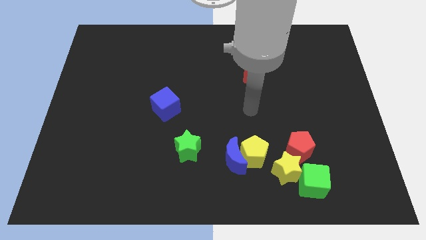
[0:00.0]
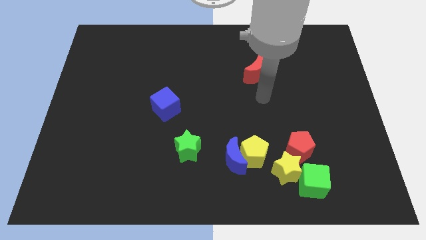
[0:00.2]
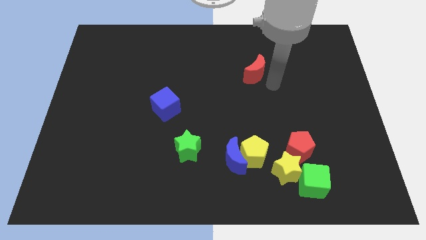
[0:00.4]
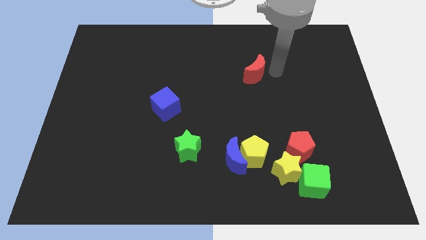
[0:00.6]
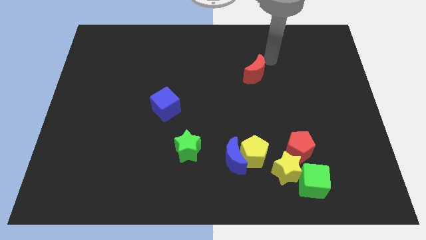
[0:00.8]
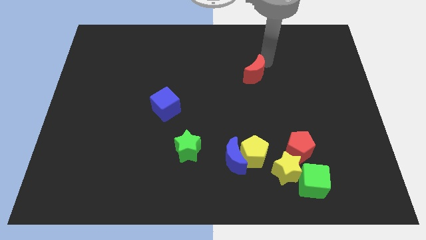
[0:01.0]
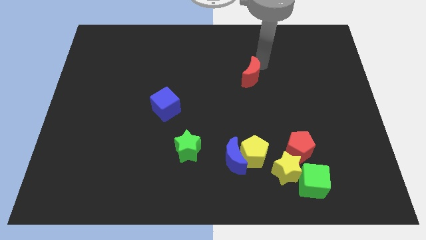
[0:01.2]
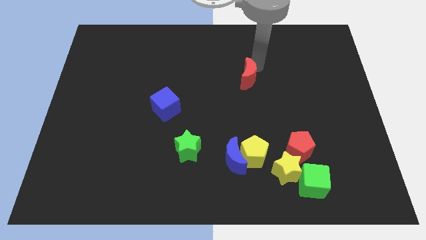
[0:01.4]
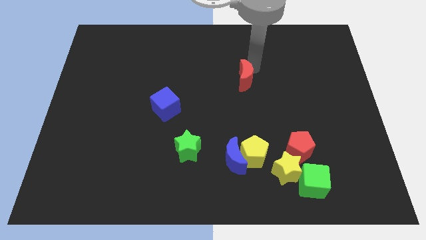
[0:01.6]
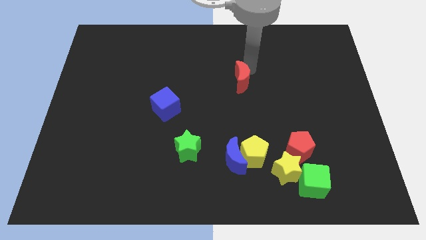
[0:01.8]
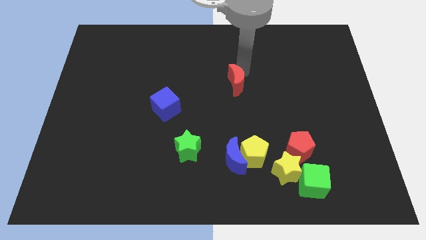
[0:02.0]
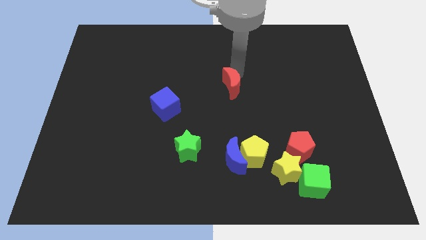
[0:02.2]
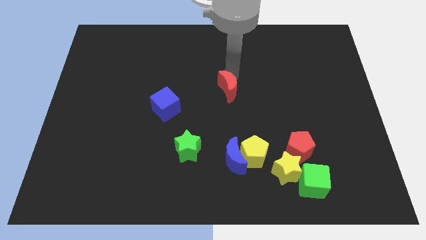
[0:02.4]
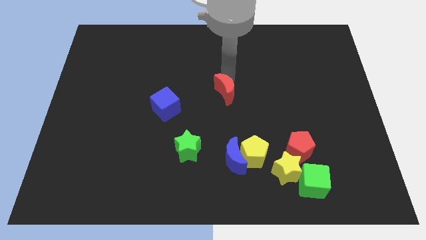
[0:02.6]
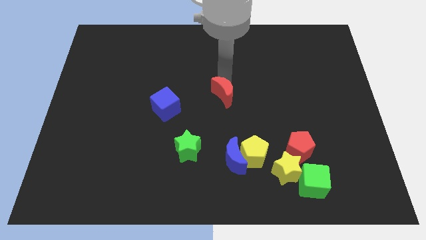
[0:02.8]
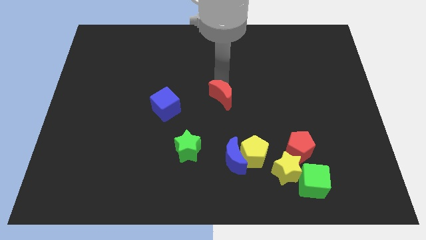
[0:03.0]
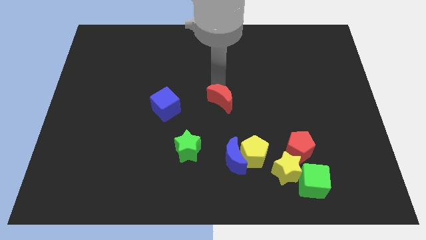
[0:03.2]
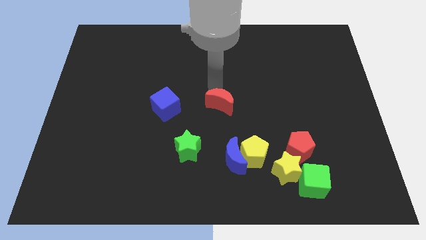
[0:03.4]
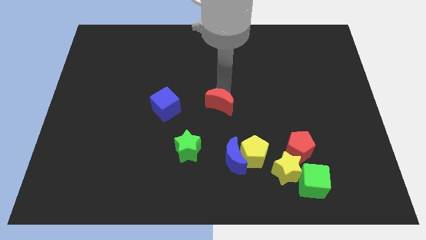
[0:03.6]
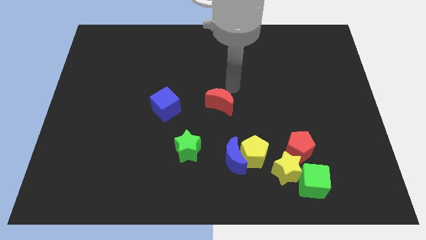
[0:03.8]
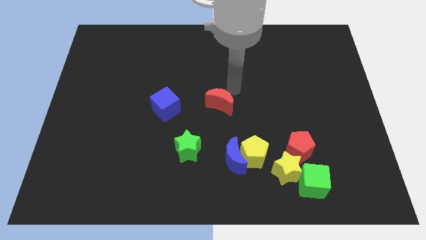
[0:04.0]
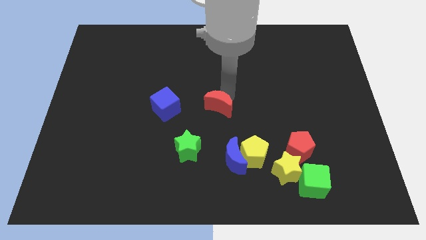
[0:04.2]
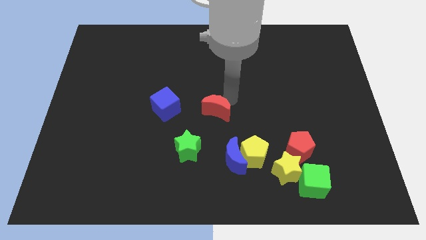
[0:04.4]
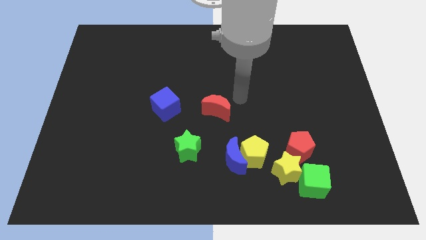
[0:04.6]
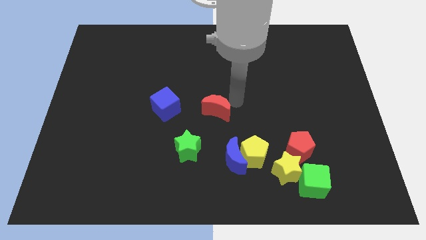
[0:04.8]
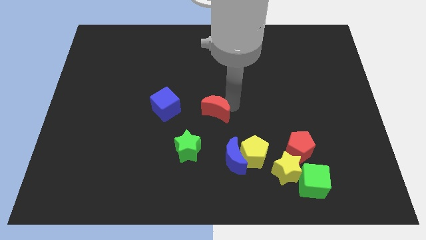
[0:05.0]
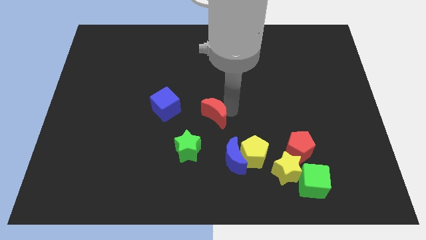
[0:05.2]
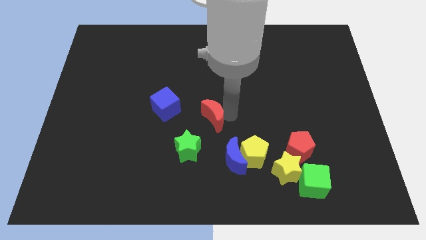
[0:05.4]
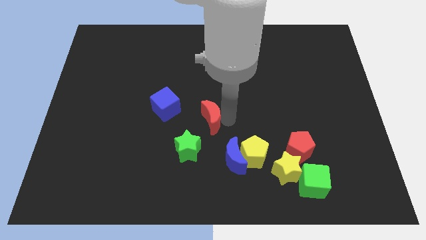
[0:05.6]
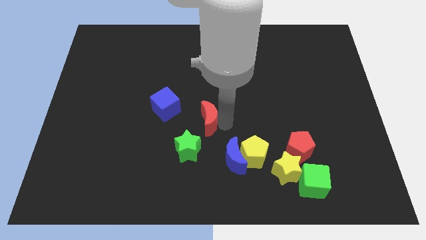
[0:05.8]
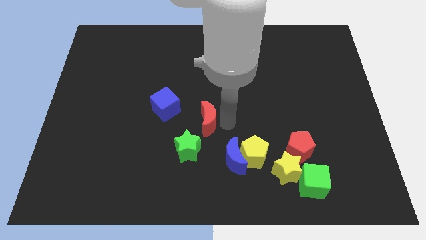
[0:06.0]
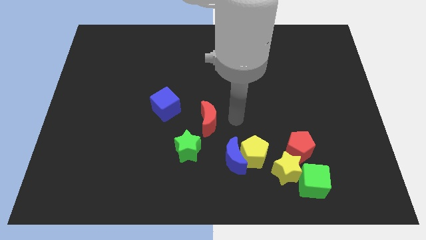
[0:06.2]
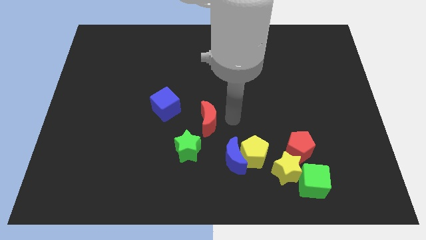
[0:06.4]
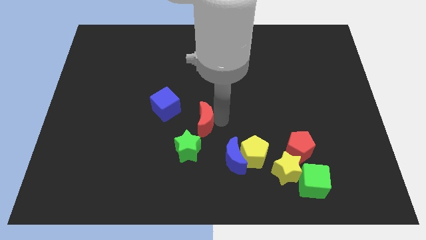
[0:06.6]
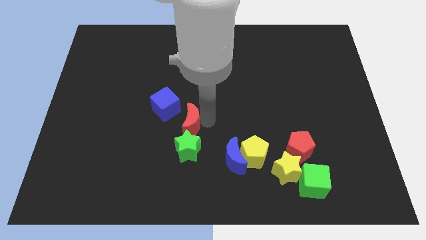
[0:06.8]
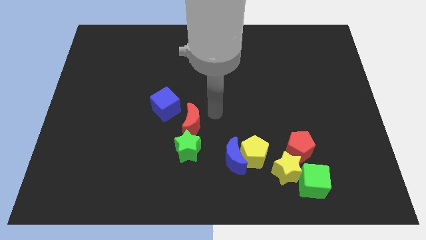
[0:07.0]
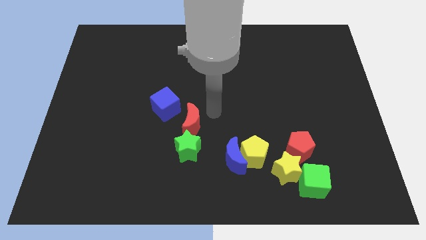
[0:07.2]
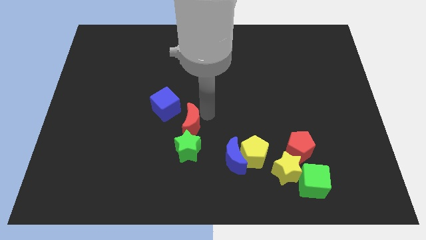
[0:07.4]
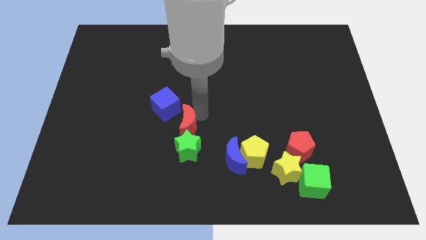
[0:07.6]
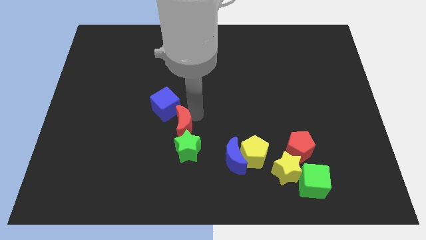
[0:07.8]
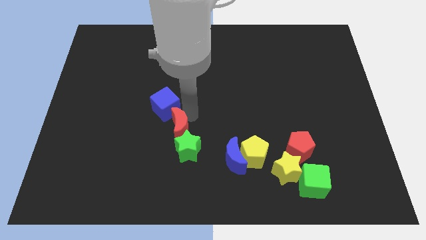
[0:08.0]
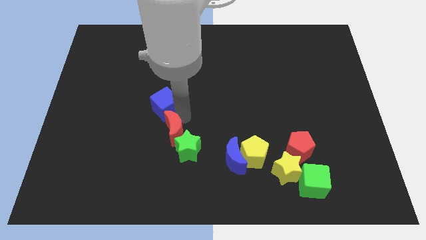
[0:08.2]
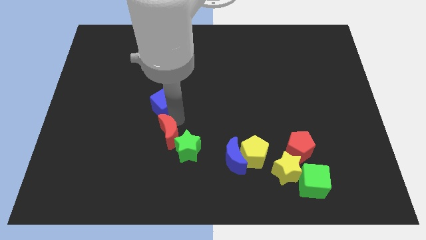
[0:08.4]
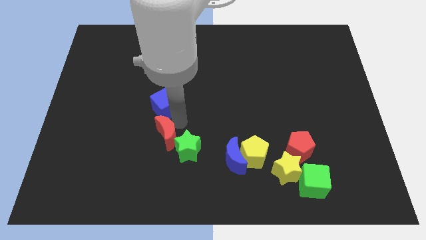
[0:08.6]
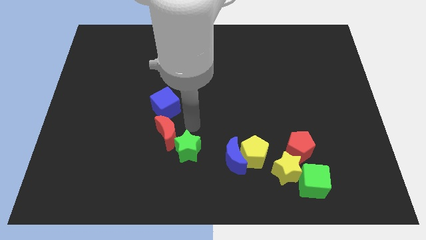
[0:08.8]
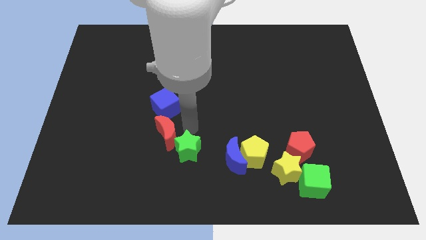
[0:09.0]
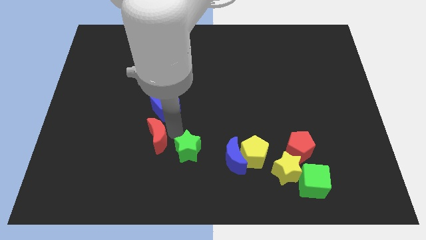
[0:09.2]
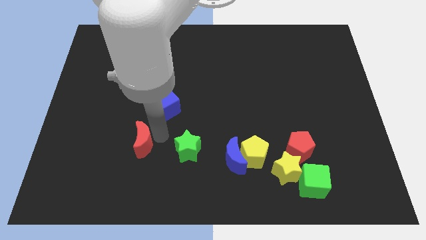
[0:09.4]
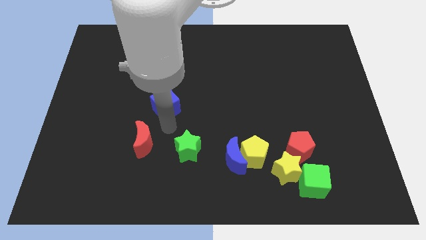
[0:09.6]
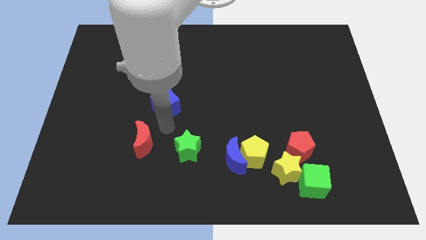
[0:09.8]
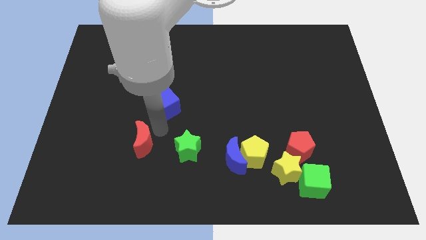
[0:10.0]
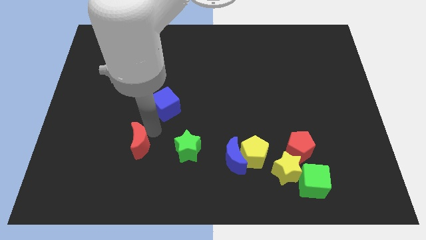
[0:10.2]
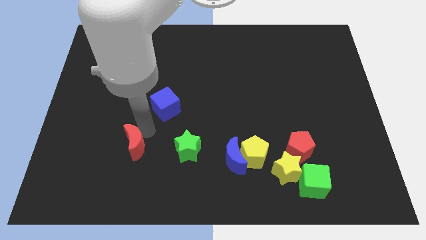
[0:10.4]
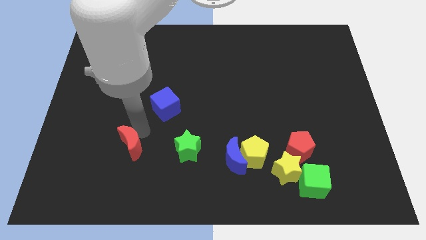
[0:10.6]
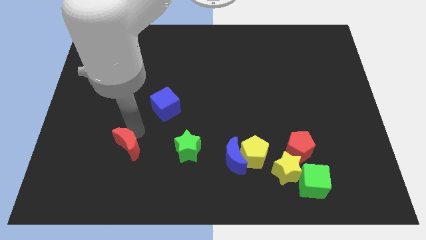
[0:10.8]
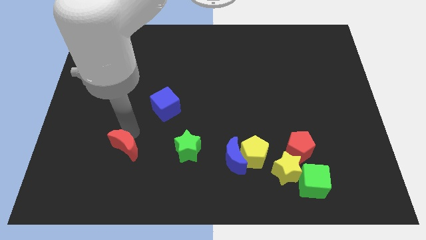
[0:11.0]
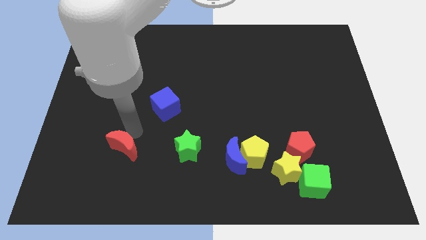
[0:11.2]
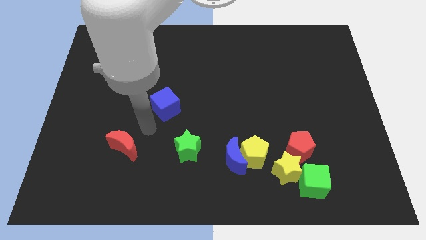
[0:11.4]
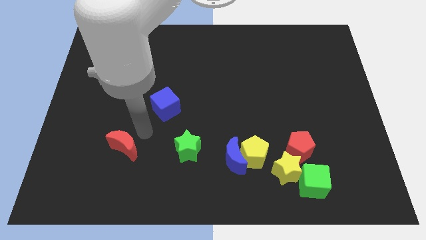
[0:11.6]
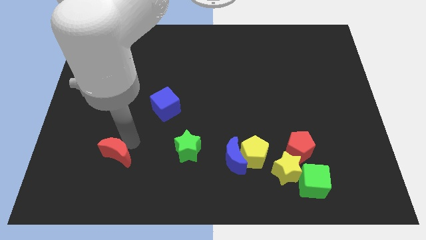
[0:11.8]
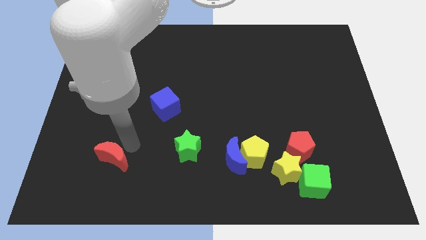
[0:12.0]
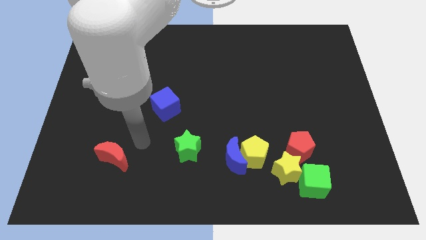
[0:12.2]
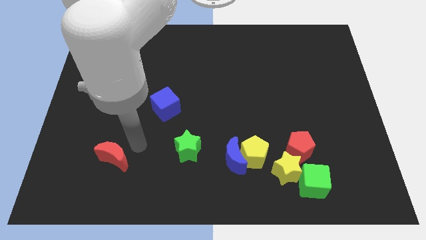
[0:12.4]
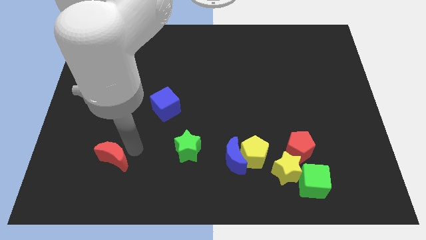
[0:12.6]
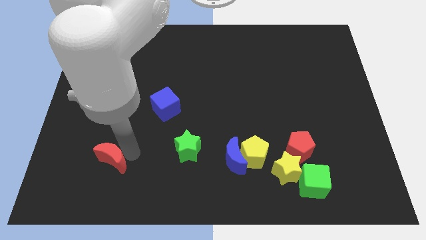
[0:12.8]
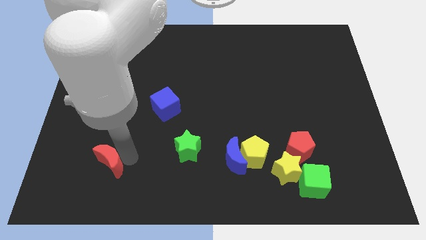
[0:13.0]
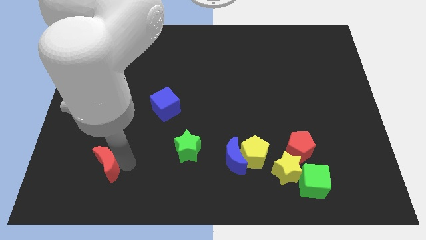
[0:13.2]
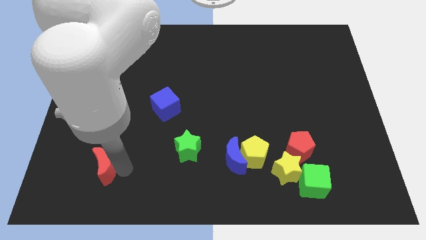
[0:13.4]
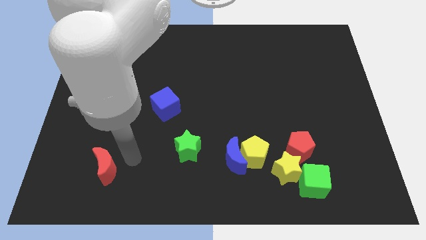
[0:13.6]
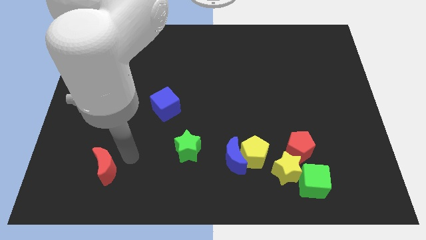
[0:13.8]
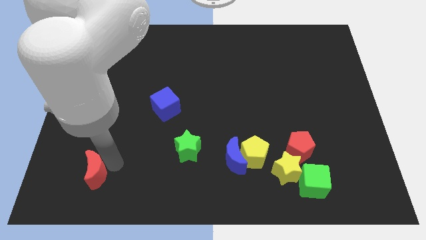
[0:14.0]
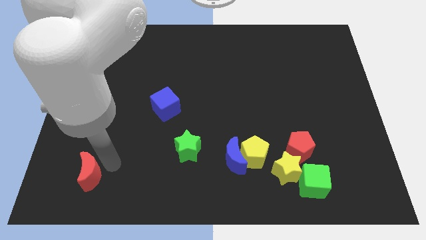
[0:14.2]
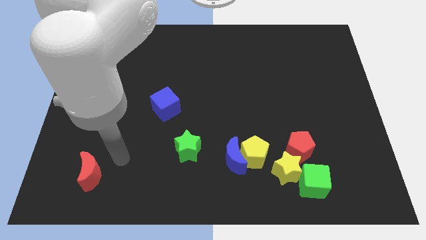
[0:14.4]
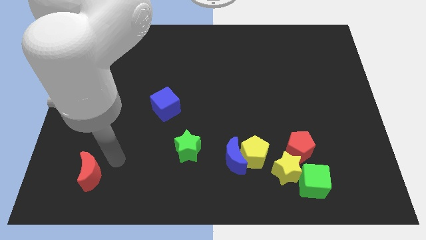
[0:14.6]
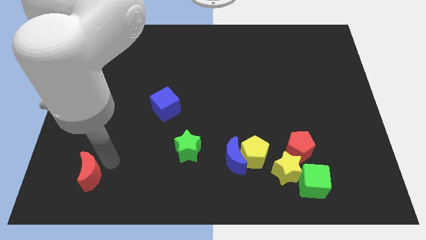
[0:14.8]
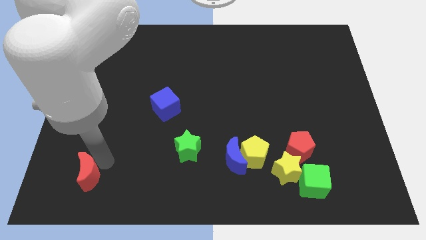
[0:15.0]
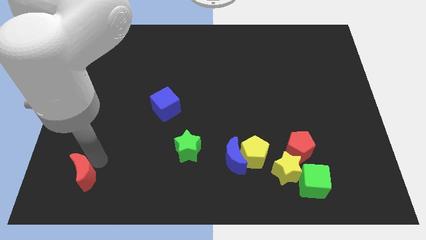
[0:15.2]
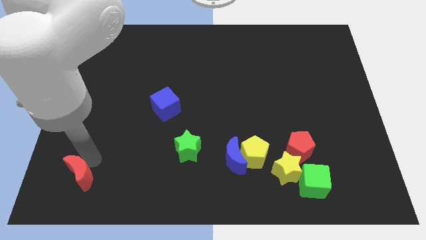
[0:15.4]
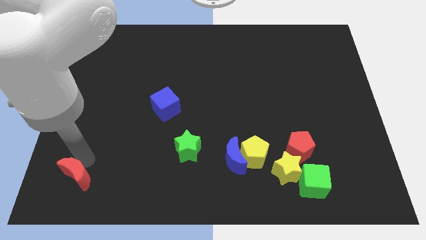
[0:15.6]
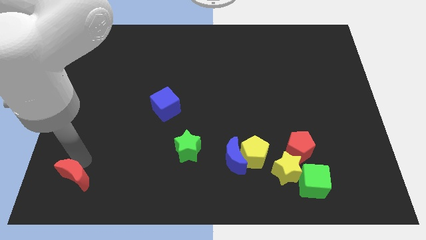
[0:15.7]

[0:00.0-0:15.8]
put the red moon to the lower left corner
